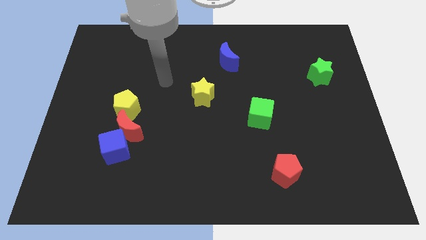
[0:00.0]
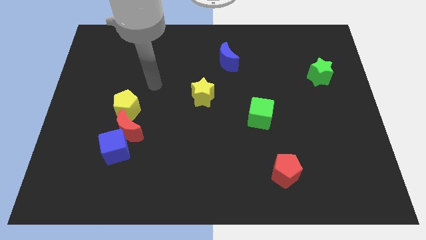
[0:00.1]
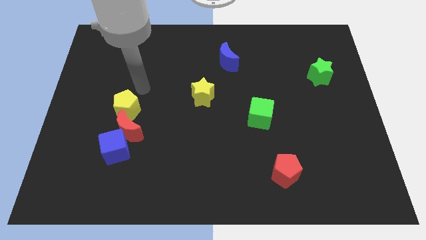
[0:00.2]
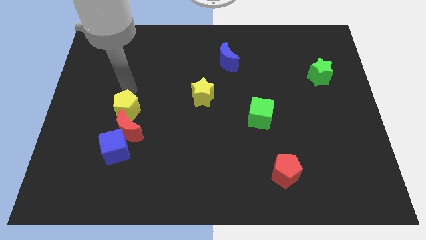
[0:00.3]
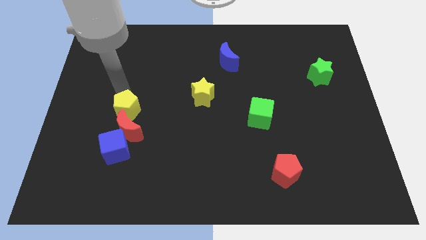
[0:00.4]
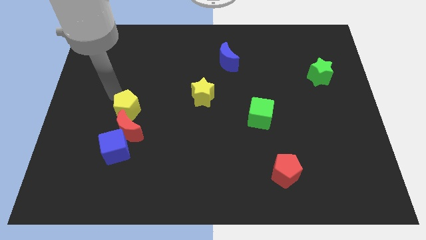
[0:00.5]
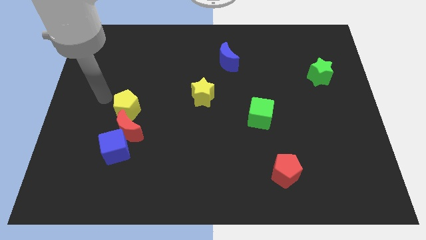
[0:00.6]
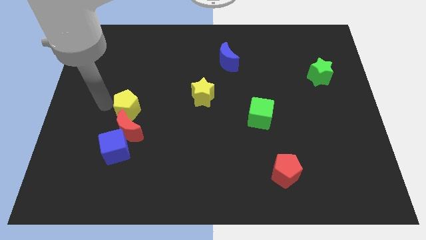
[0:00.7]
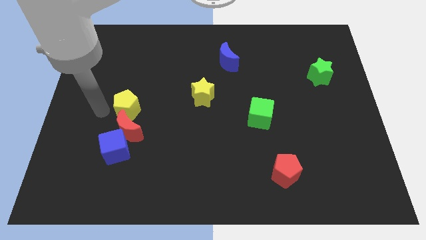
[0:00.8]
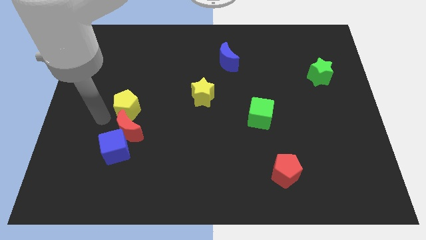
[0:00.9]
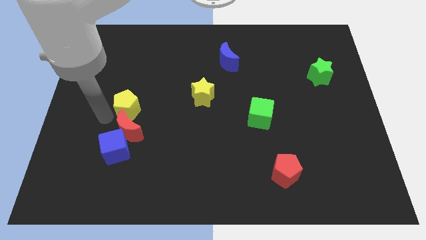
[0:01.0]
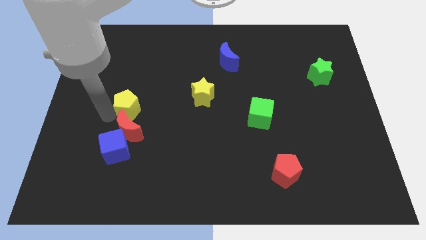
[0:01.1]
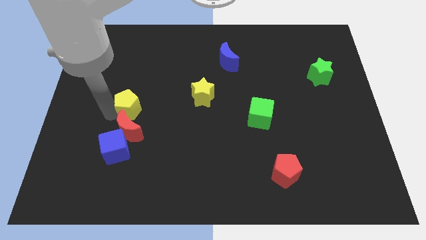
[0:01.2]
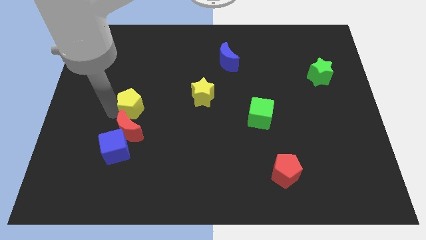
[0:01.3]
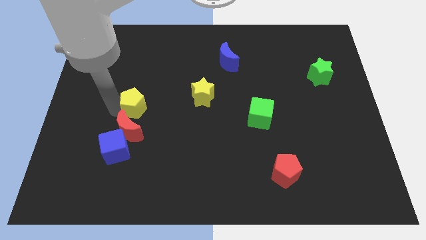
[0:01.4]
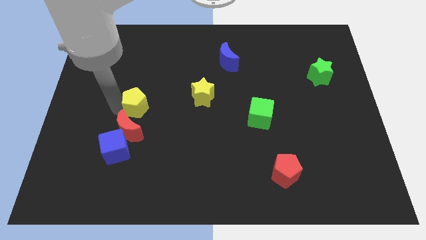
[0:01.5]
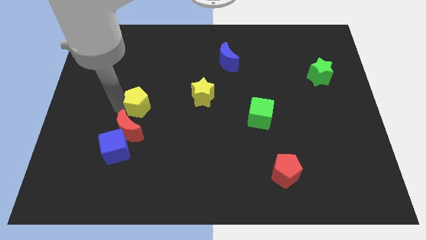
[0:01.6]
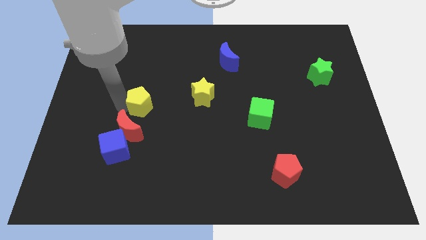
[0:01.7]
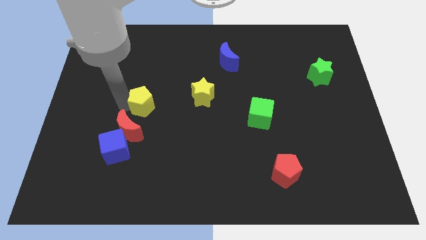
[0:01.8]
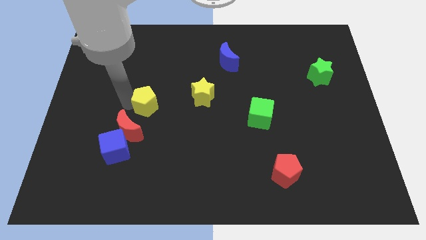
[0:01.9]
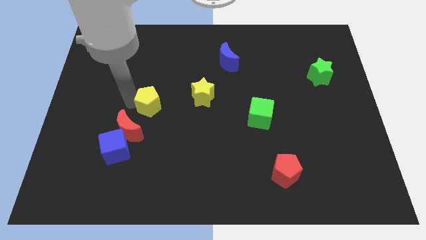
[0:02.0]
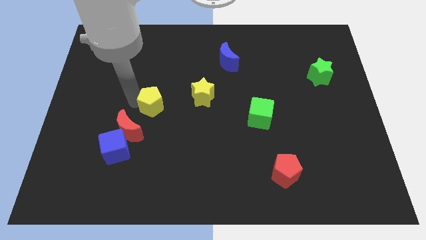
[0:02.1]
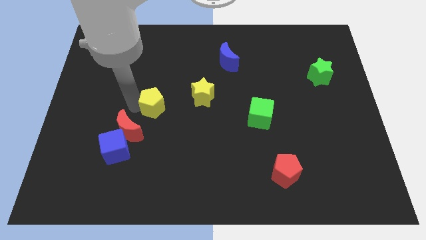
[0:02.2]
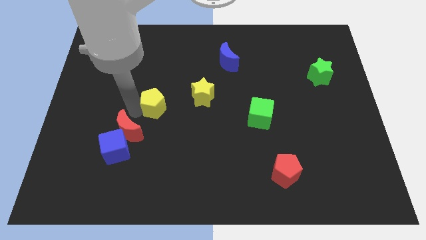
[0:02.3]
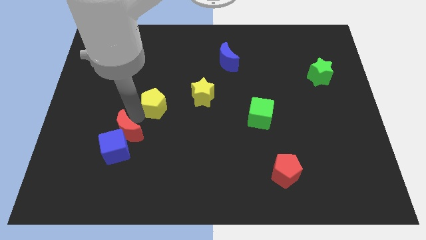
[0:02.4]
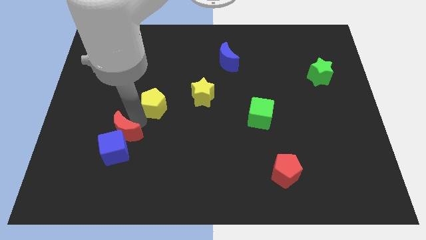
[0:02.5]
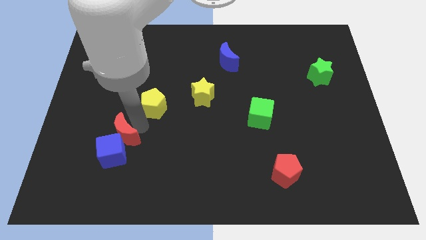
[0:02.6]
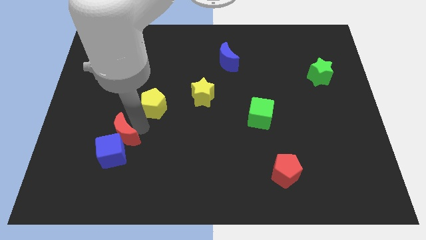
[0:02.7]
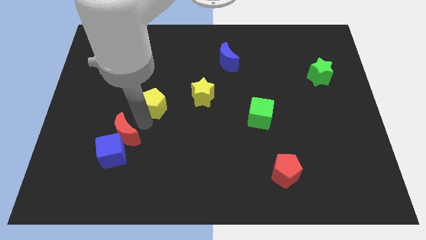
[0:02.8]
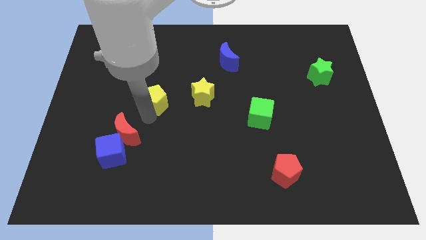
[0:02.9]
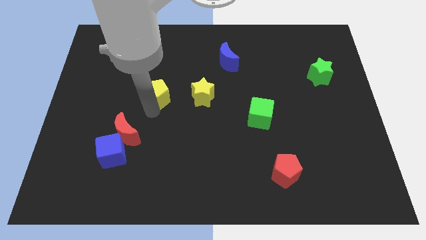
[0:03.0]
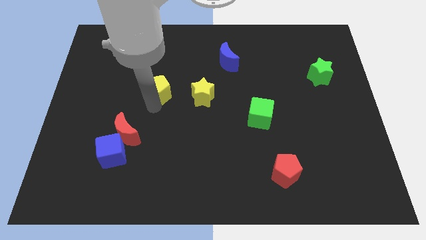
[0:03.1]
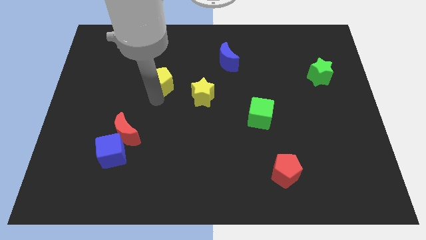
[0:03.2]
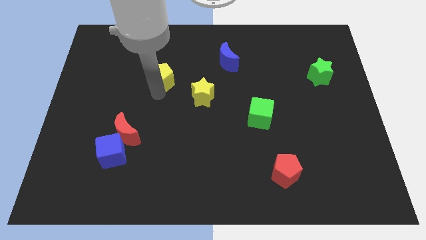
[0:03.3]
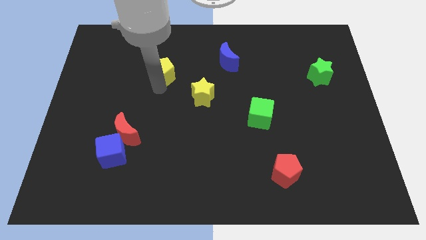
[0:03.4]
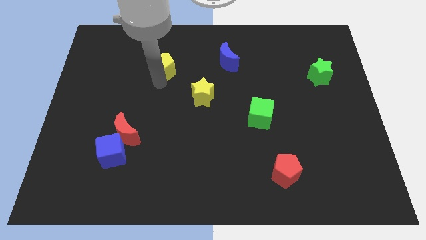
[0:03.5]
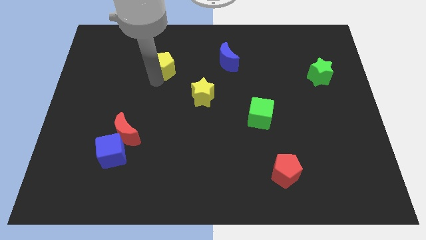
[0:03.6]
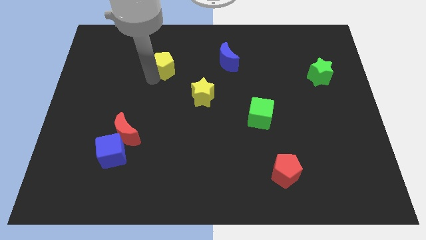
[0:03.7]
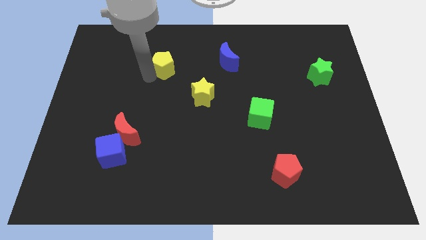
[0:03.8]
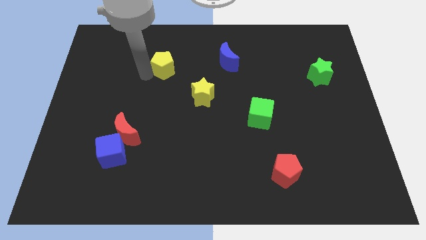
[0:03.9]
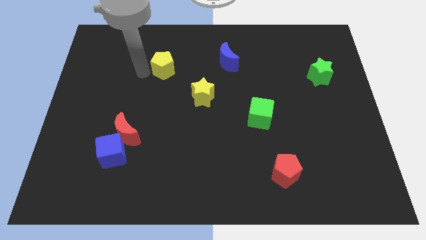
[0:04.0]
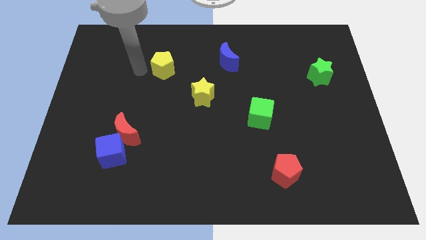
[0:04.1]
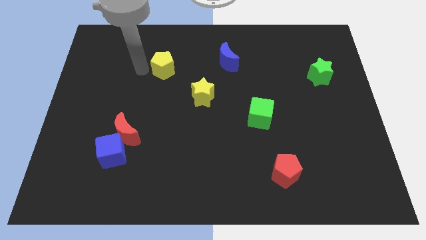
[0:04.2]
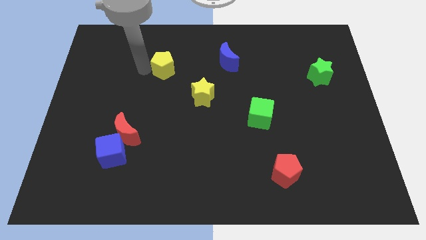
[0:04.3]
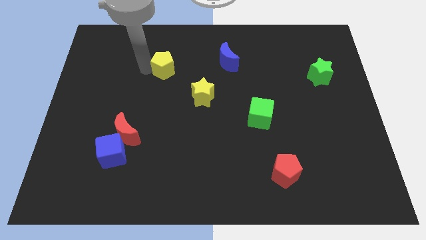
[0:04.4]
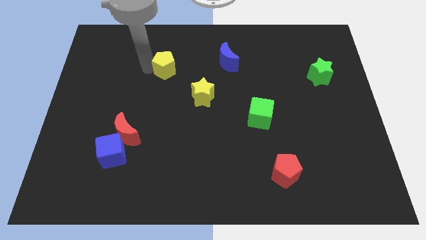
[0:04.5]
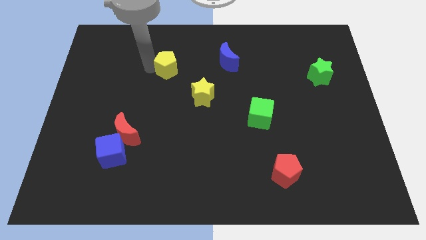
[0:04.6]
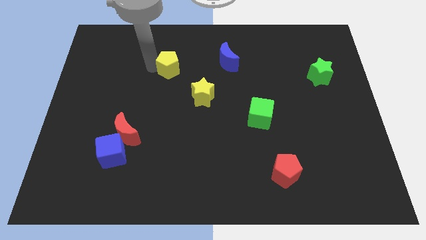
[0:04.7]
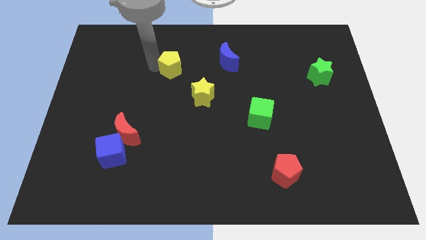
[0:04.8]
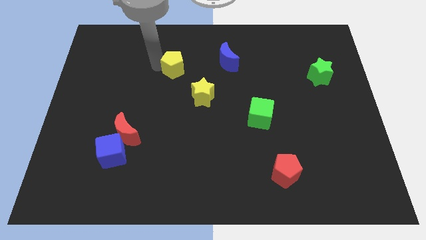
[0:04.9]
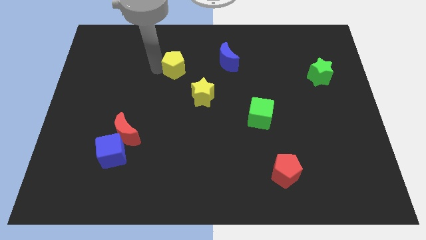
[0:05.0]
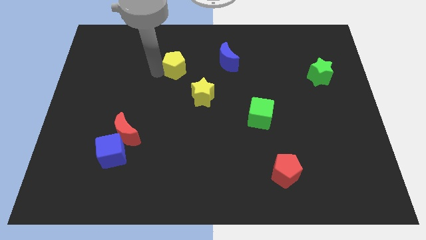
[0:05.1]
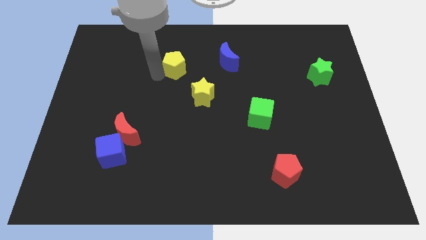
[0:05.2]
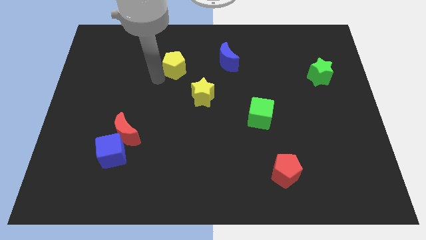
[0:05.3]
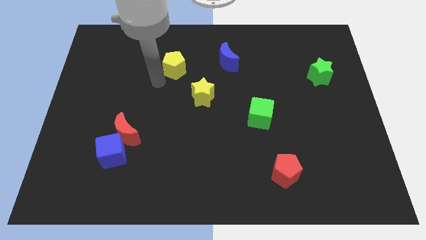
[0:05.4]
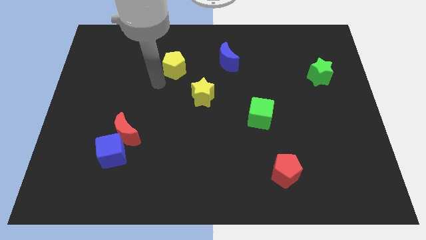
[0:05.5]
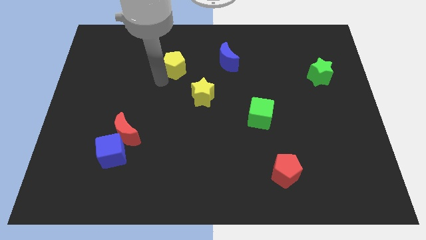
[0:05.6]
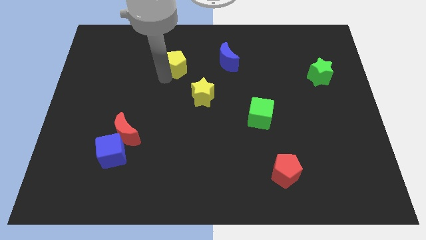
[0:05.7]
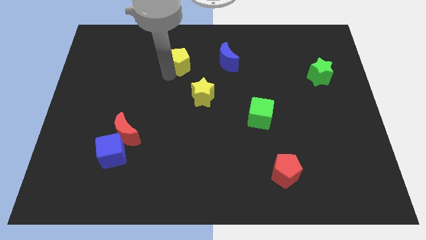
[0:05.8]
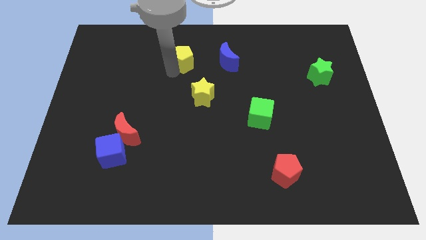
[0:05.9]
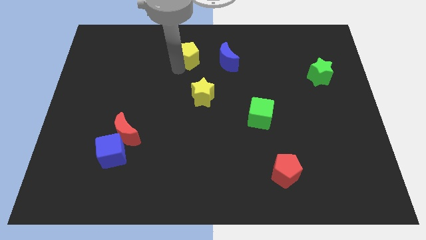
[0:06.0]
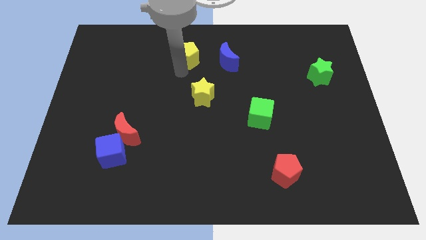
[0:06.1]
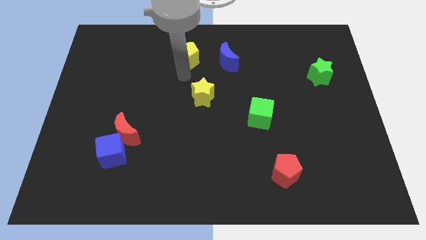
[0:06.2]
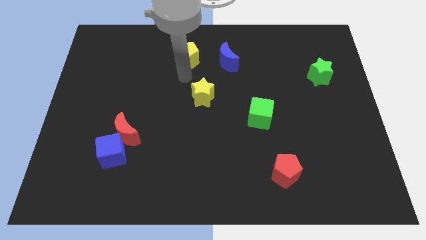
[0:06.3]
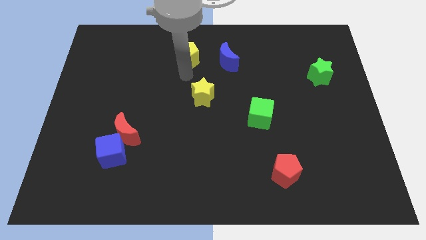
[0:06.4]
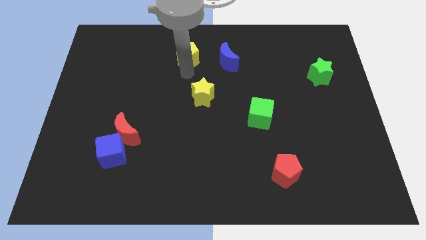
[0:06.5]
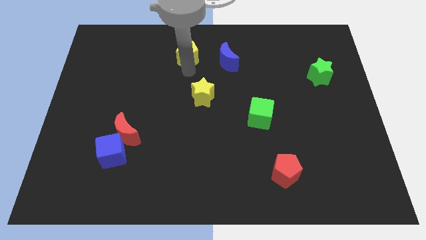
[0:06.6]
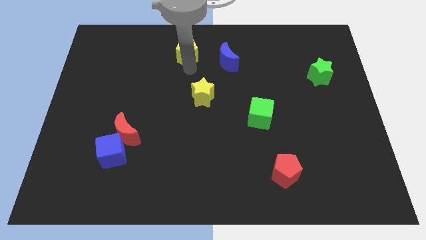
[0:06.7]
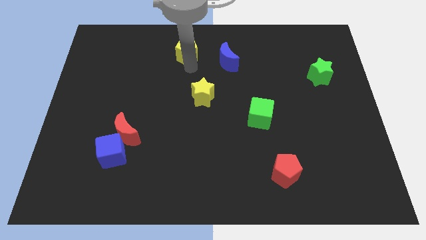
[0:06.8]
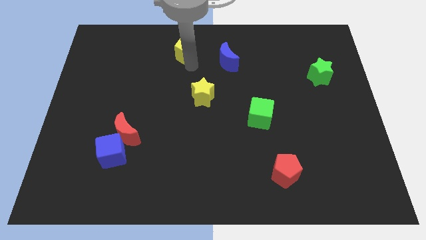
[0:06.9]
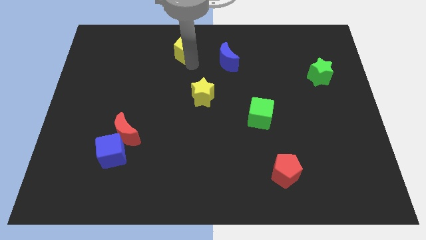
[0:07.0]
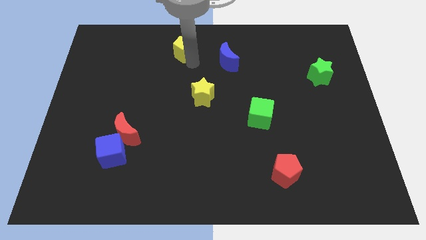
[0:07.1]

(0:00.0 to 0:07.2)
move the yellow pentagon to the top side
